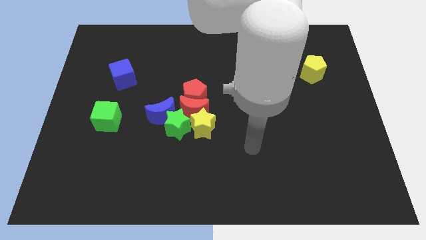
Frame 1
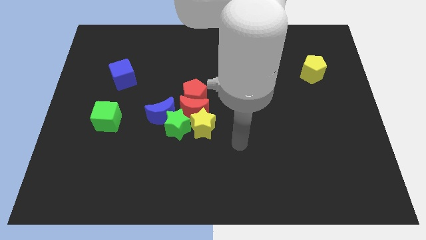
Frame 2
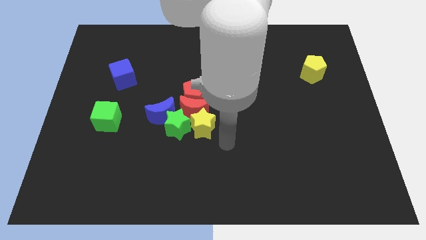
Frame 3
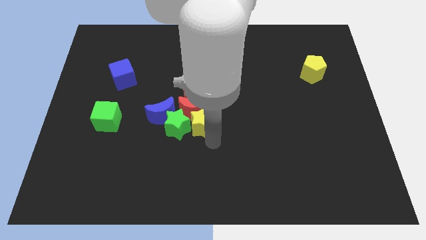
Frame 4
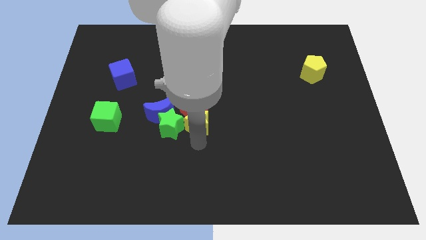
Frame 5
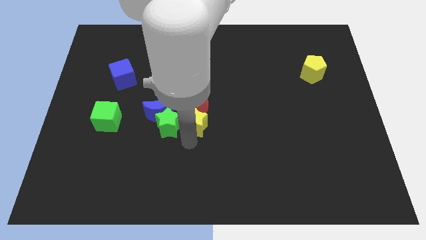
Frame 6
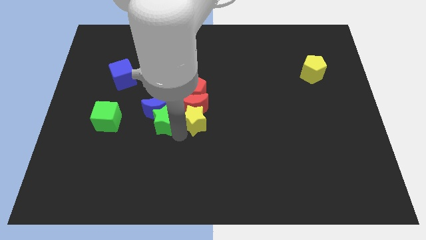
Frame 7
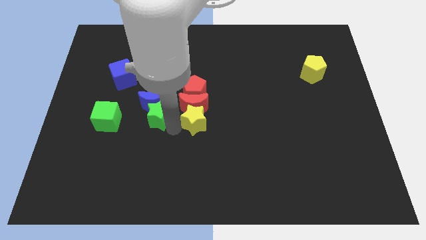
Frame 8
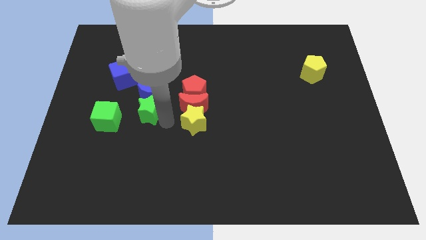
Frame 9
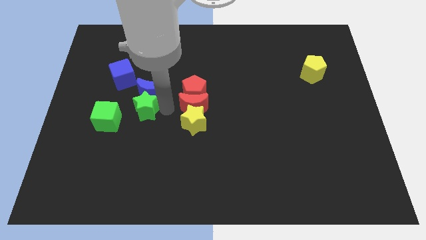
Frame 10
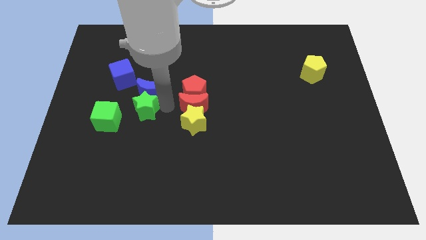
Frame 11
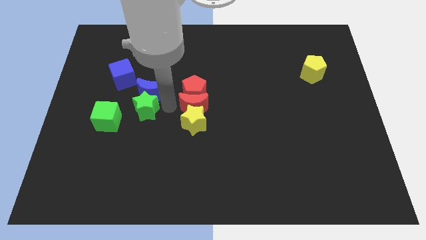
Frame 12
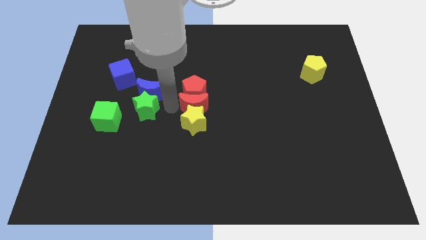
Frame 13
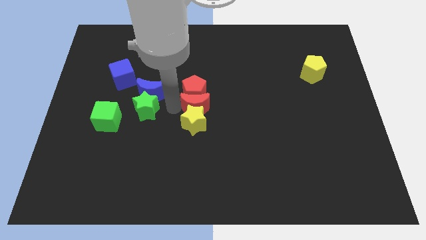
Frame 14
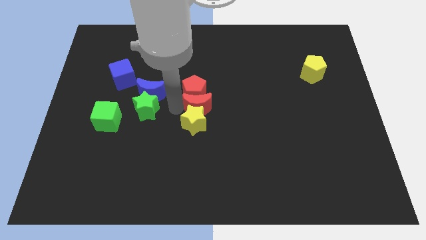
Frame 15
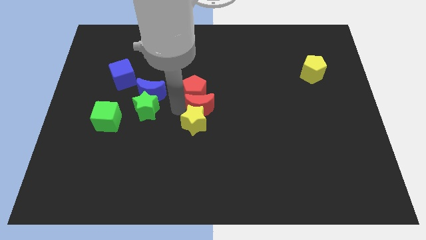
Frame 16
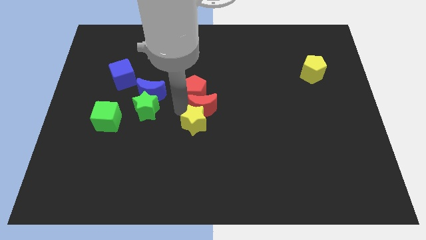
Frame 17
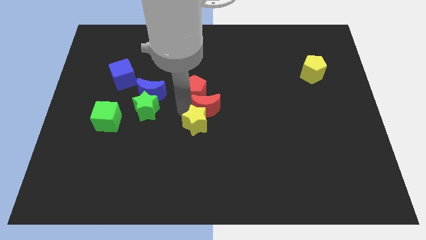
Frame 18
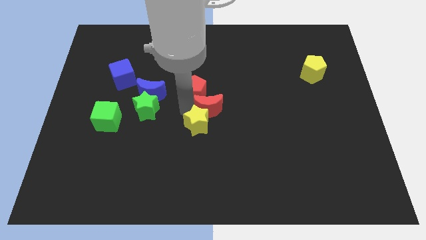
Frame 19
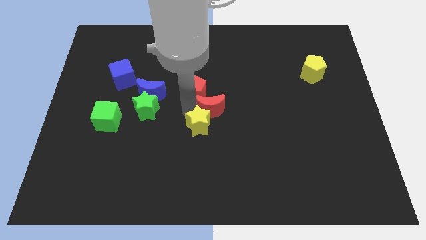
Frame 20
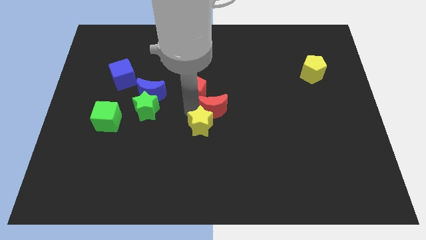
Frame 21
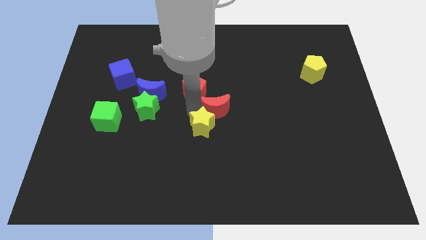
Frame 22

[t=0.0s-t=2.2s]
separate the red moon from the group

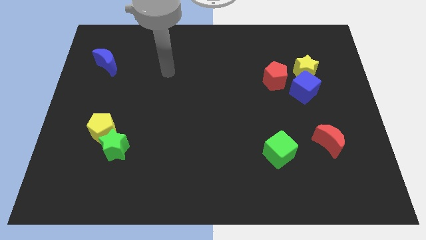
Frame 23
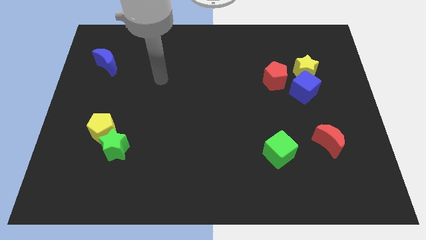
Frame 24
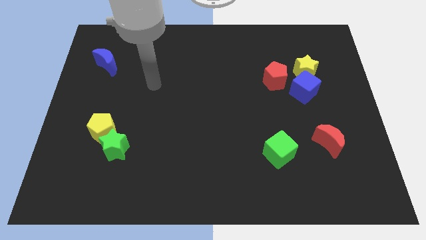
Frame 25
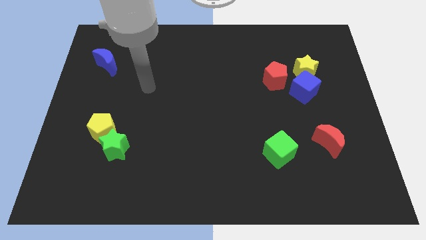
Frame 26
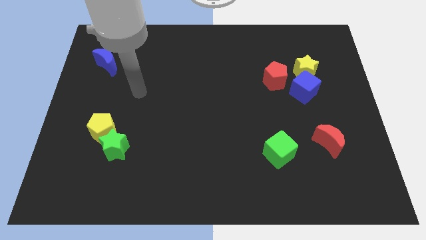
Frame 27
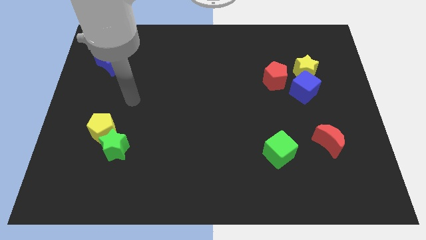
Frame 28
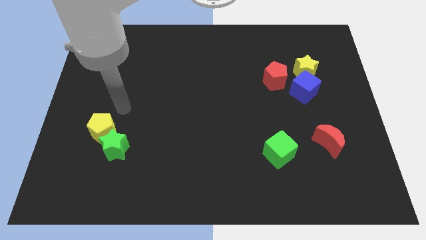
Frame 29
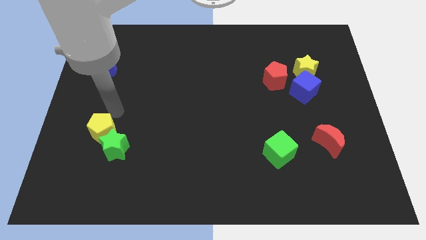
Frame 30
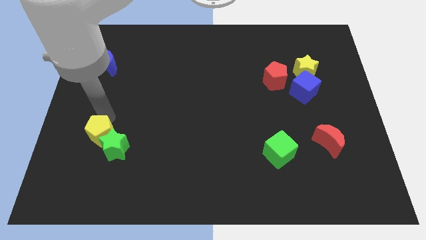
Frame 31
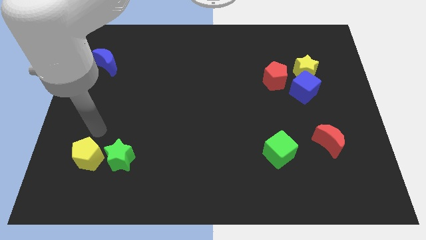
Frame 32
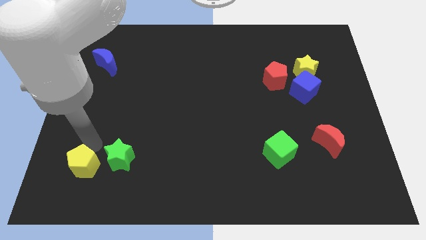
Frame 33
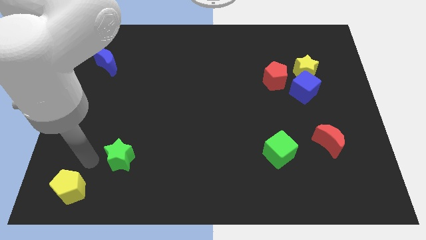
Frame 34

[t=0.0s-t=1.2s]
separate the green star from the yellow pentagon

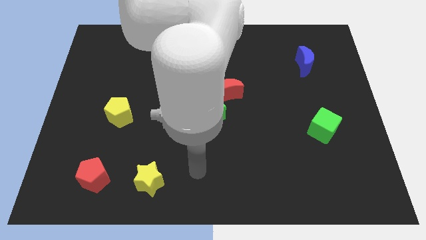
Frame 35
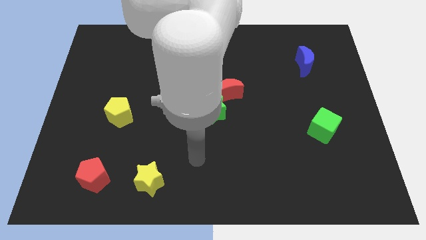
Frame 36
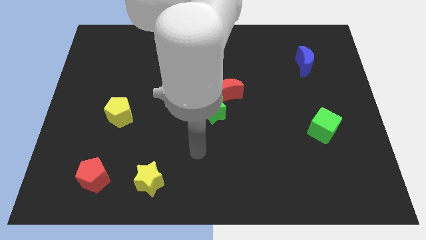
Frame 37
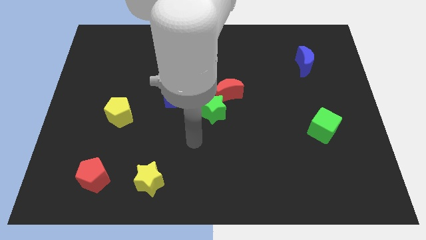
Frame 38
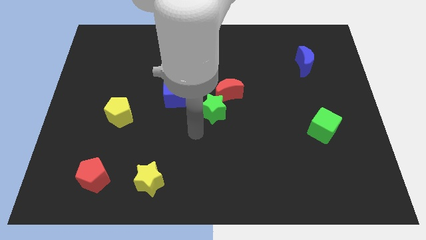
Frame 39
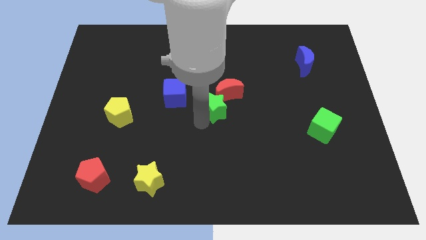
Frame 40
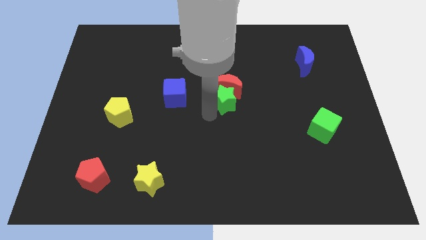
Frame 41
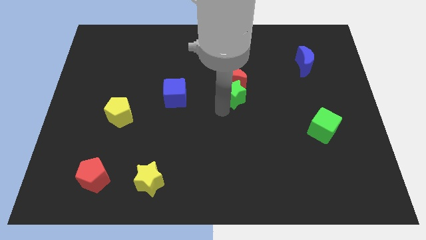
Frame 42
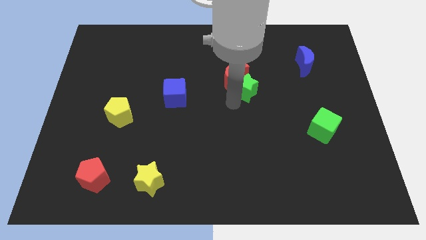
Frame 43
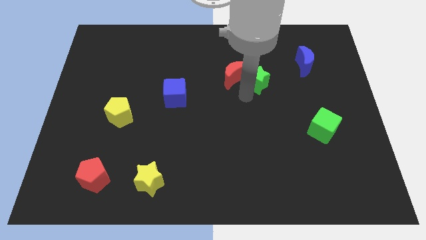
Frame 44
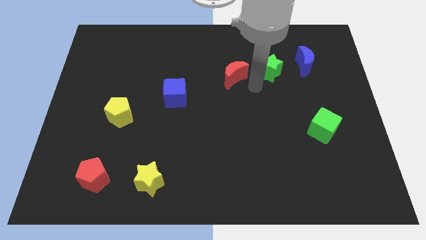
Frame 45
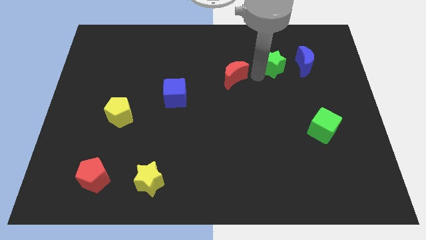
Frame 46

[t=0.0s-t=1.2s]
pull the red moon apart from the green star

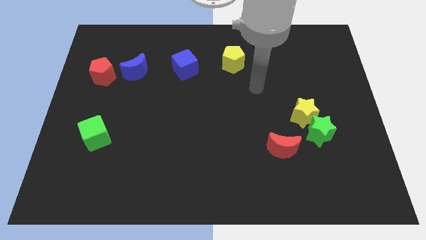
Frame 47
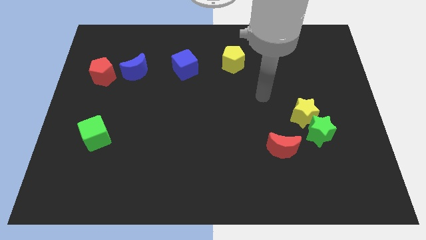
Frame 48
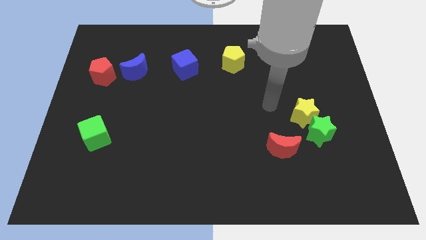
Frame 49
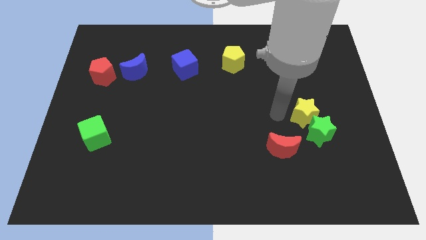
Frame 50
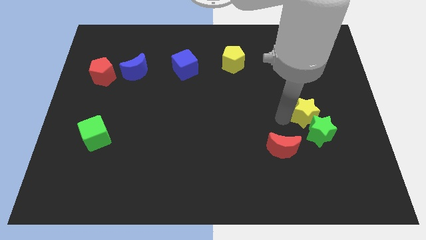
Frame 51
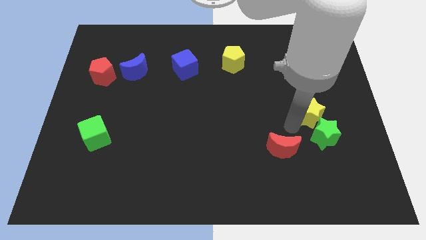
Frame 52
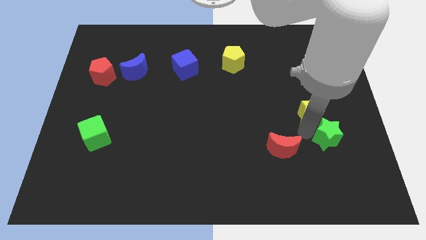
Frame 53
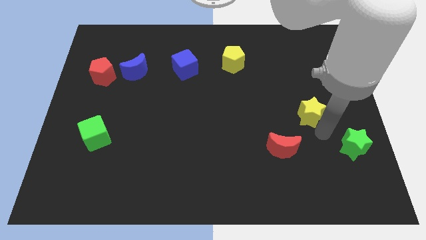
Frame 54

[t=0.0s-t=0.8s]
move the yellow star away from the green star

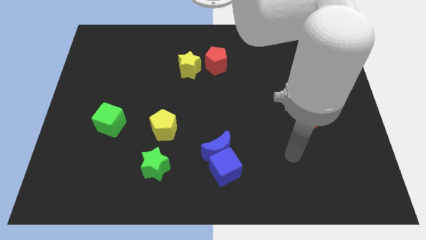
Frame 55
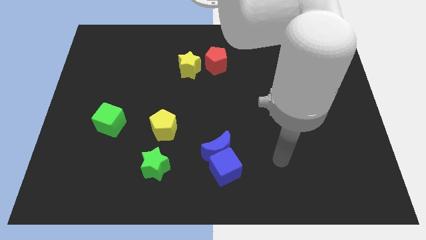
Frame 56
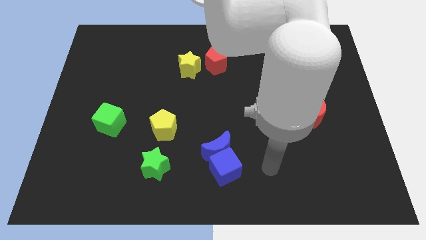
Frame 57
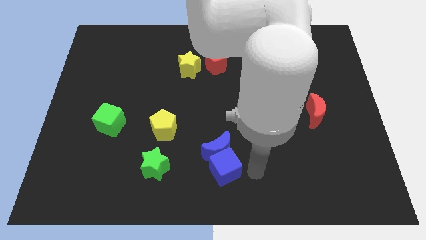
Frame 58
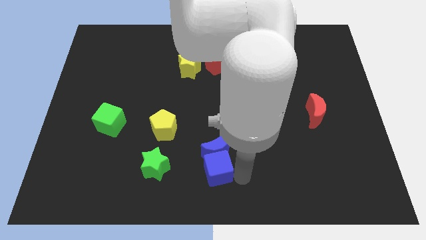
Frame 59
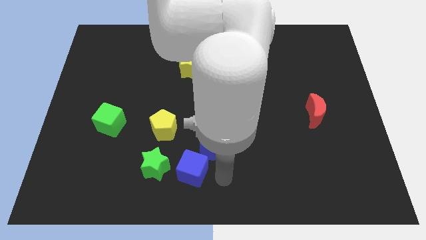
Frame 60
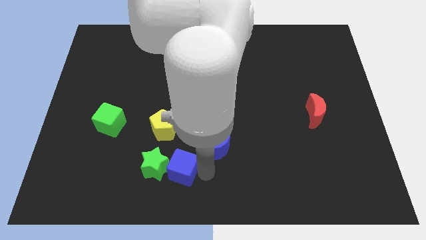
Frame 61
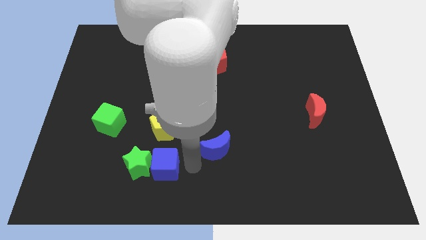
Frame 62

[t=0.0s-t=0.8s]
pull the blue moon apart from the blue cube

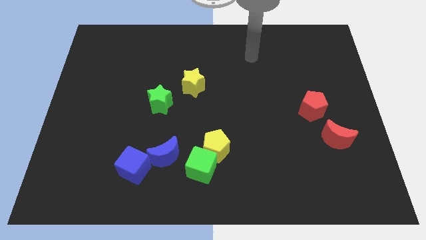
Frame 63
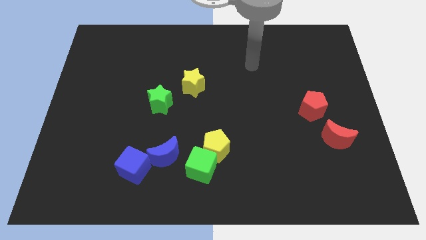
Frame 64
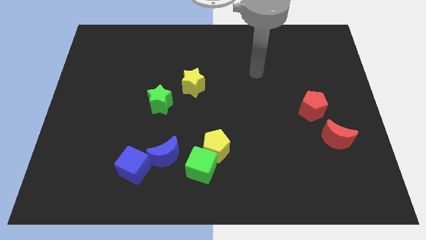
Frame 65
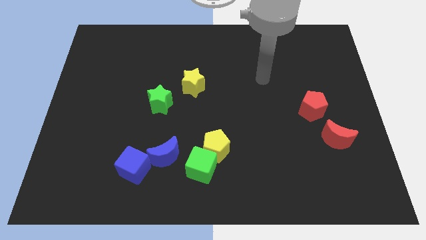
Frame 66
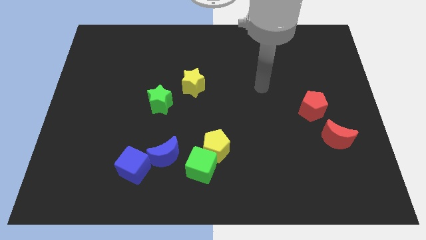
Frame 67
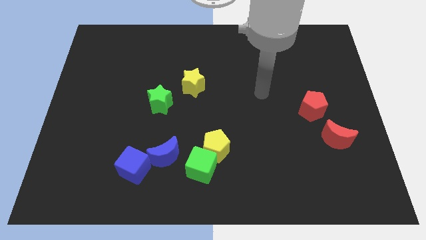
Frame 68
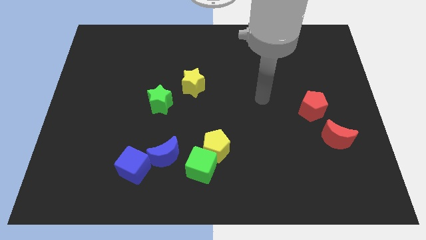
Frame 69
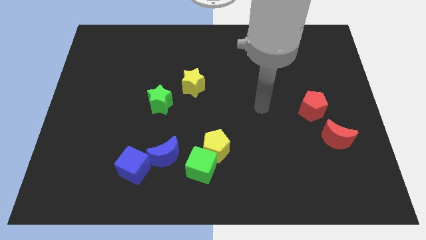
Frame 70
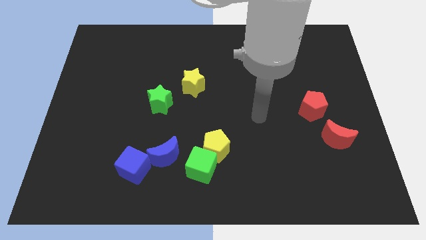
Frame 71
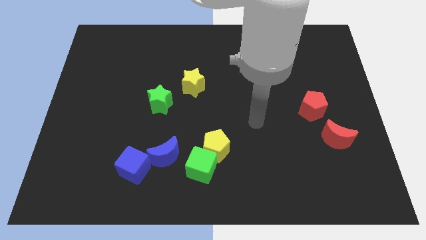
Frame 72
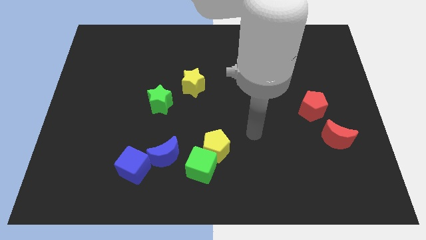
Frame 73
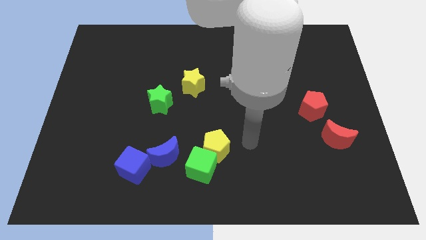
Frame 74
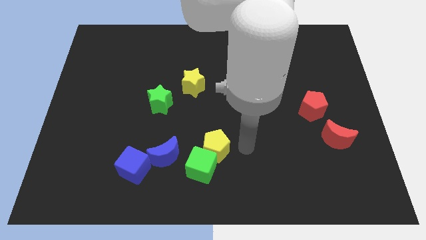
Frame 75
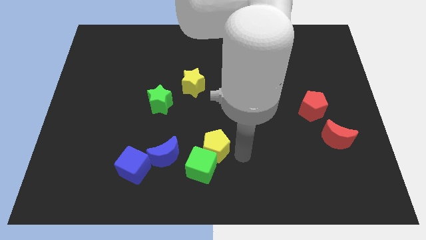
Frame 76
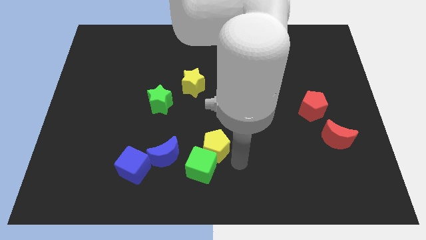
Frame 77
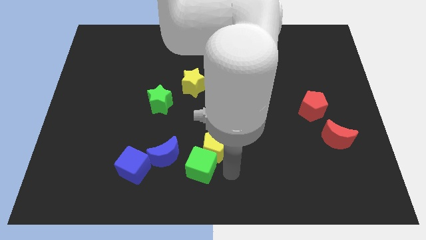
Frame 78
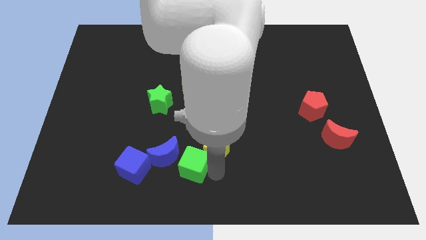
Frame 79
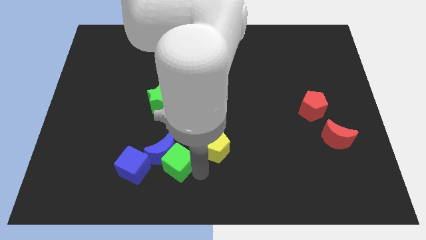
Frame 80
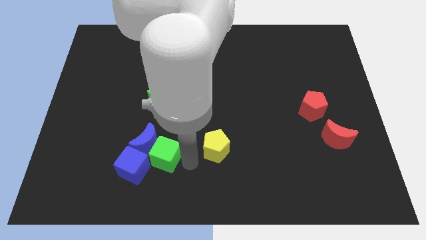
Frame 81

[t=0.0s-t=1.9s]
separate the yellow pentagon from the green cube

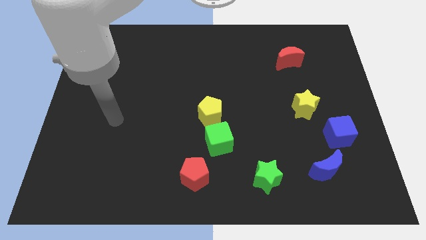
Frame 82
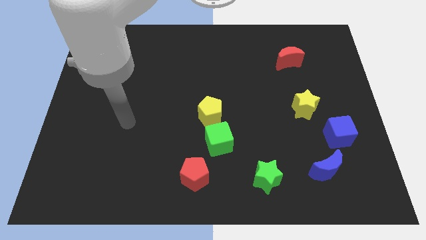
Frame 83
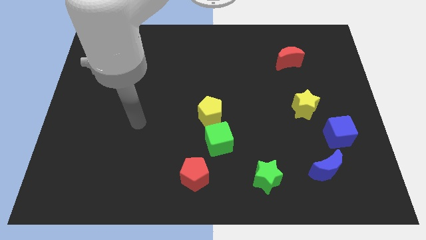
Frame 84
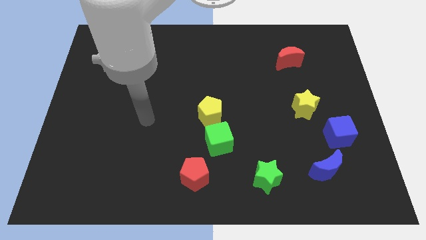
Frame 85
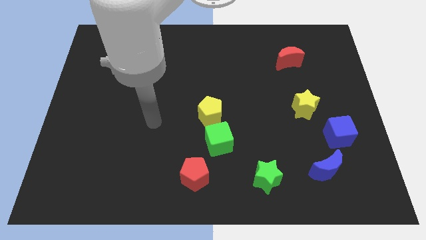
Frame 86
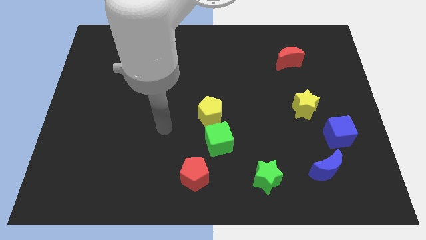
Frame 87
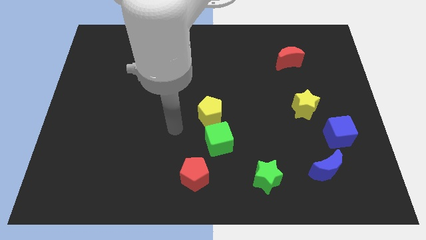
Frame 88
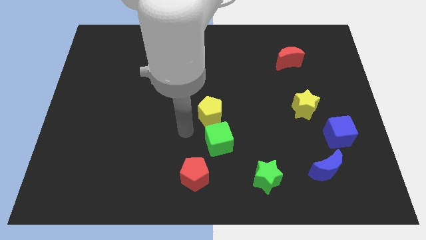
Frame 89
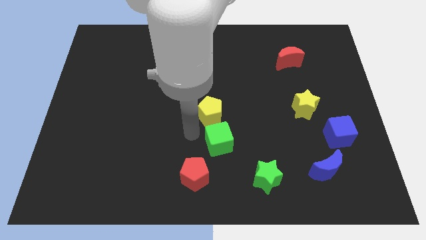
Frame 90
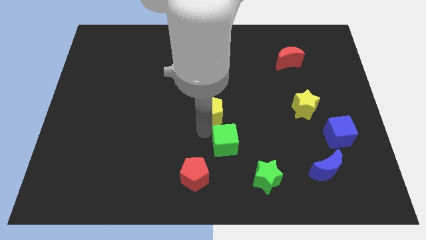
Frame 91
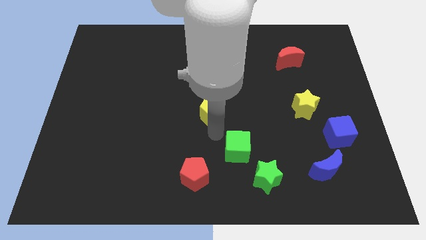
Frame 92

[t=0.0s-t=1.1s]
move the yellow pentagon away from the green cube

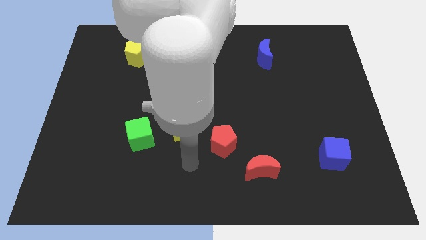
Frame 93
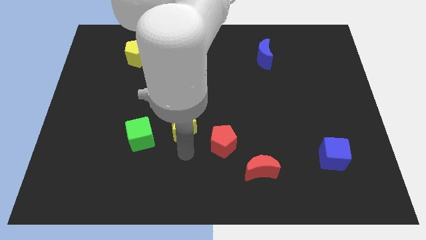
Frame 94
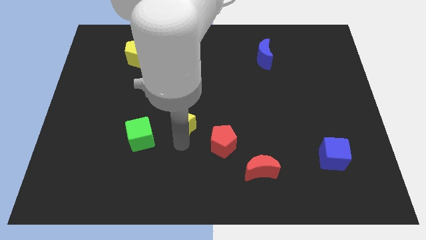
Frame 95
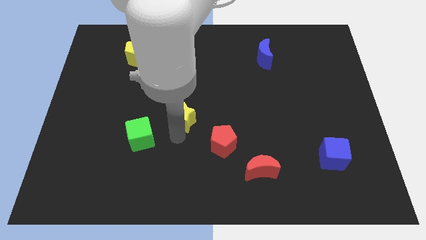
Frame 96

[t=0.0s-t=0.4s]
move the green cube away from the yellow star
